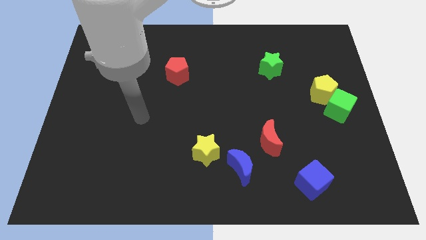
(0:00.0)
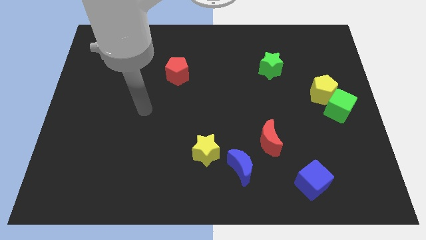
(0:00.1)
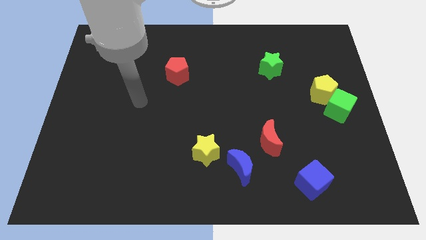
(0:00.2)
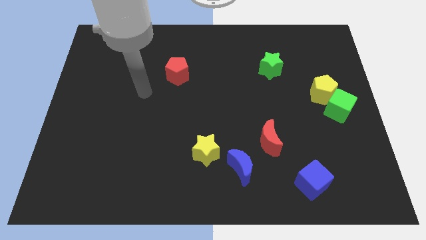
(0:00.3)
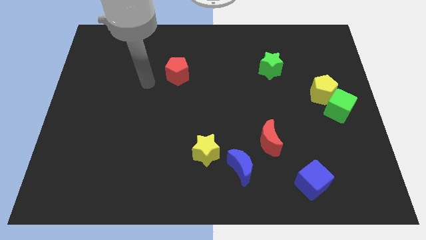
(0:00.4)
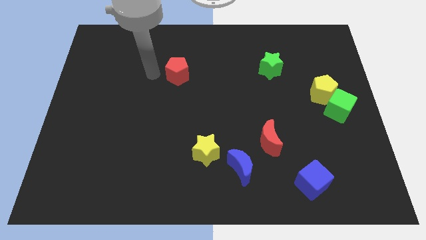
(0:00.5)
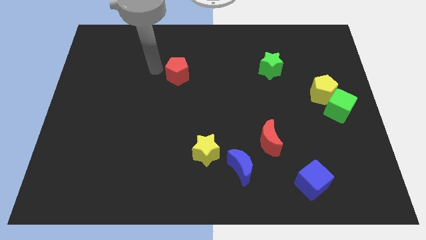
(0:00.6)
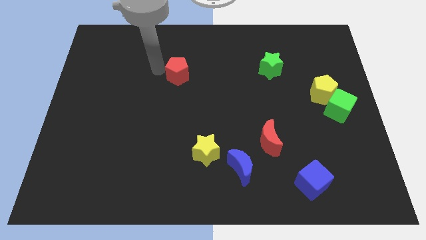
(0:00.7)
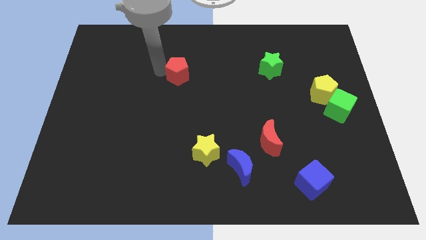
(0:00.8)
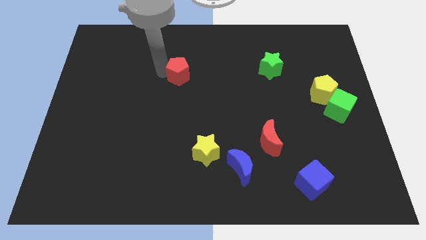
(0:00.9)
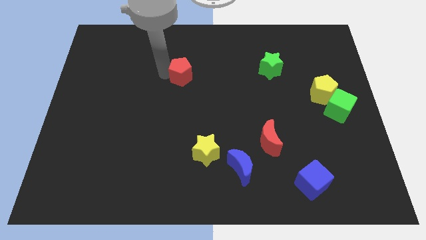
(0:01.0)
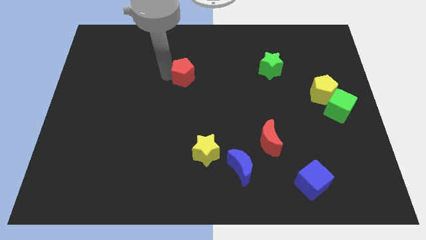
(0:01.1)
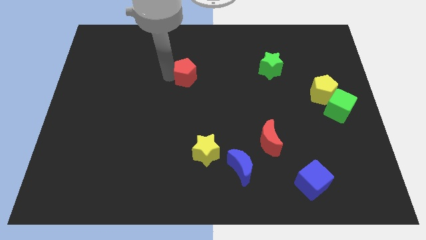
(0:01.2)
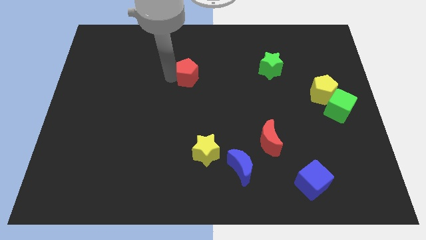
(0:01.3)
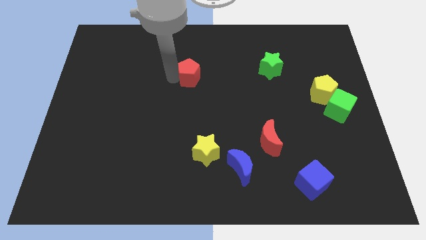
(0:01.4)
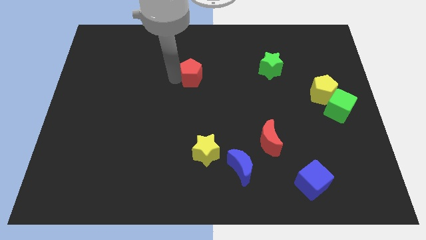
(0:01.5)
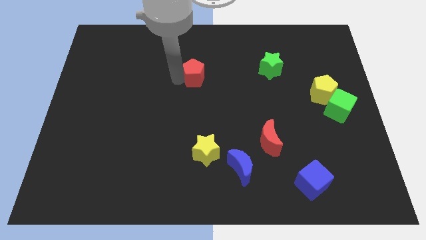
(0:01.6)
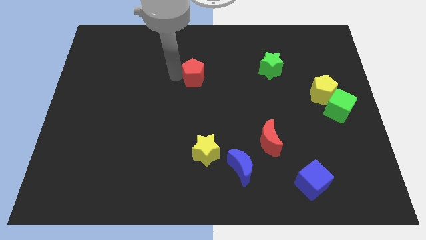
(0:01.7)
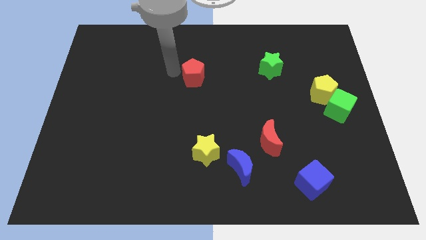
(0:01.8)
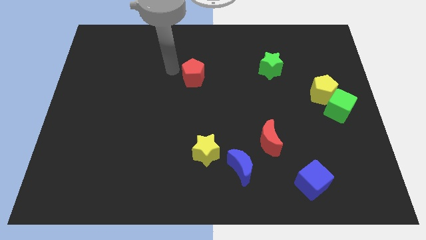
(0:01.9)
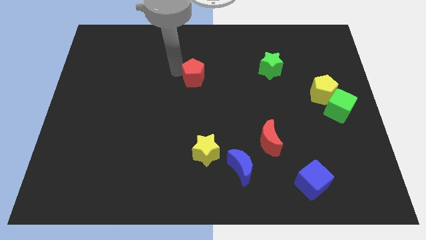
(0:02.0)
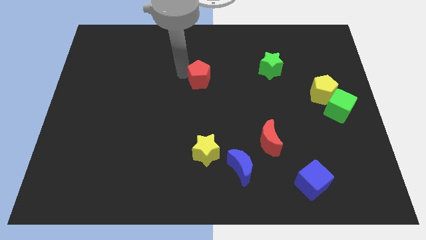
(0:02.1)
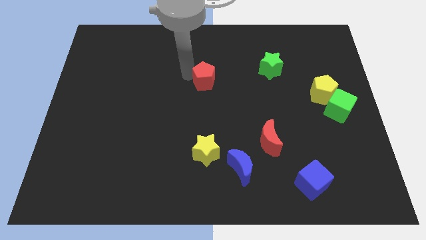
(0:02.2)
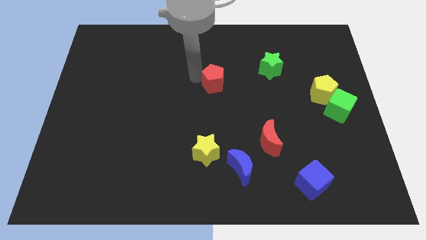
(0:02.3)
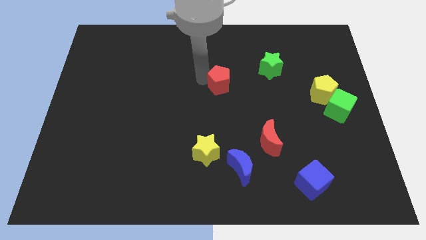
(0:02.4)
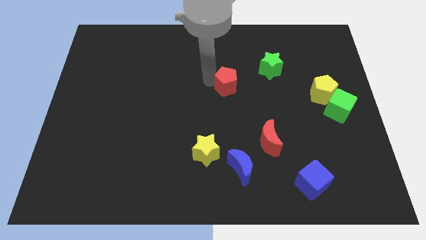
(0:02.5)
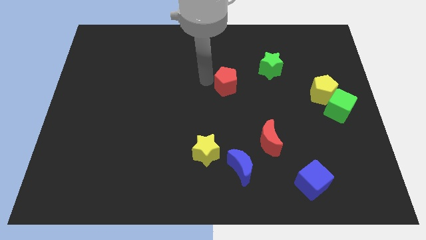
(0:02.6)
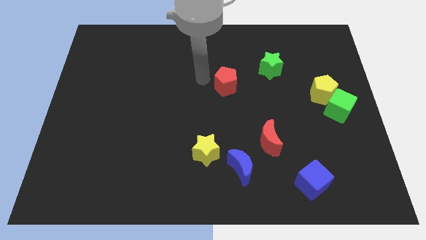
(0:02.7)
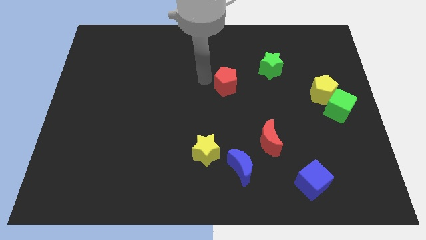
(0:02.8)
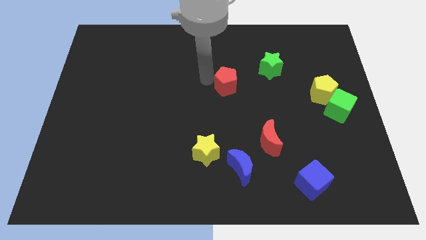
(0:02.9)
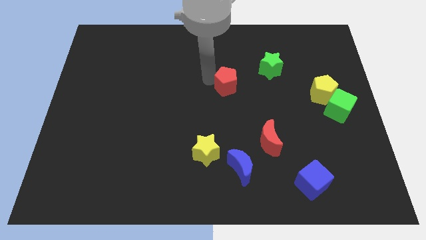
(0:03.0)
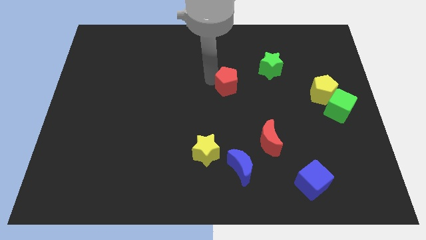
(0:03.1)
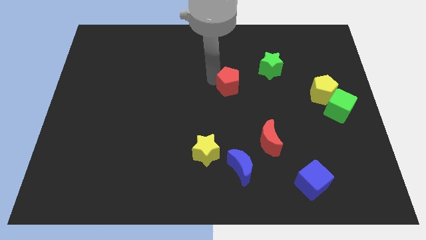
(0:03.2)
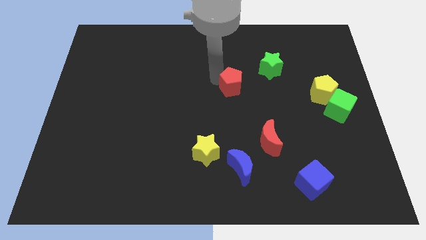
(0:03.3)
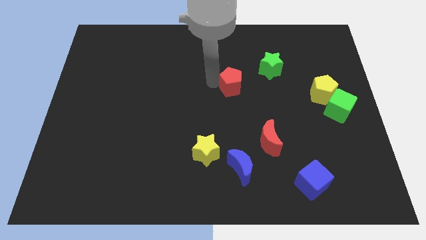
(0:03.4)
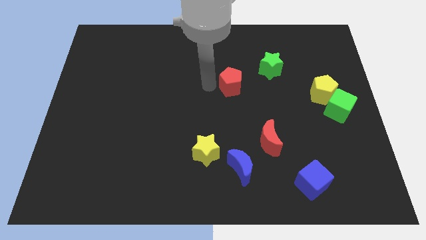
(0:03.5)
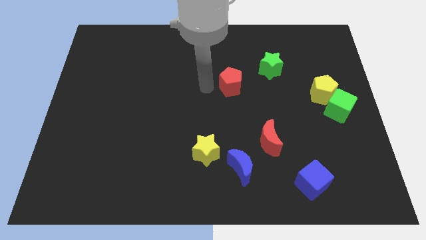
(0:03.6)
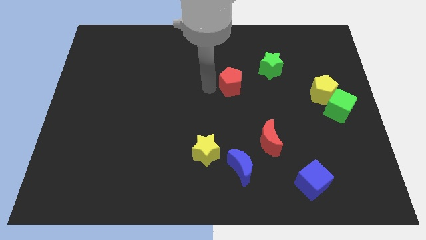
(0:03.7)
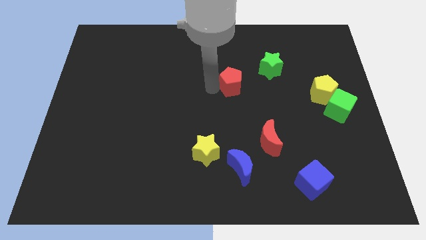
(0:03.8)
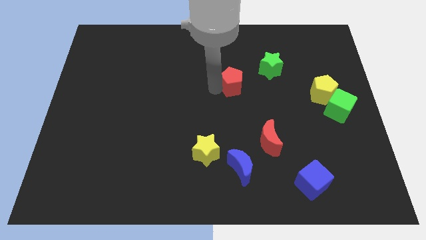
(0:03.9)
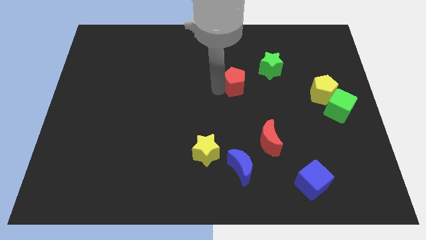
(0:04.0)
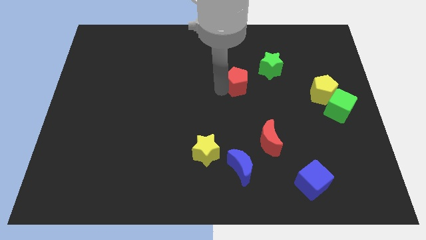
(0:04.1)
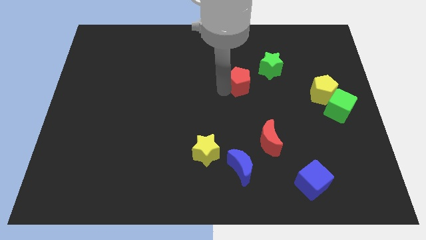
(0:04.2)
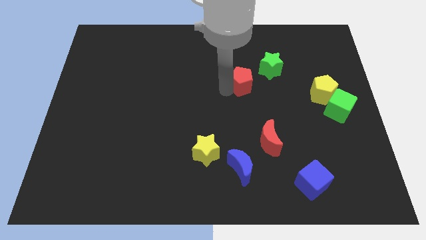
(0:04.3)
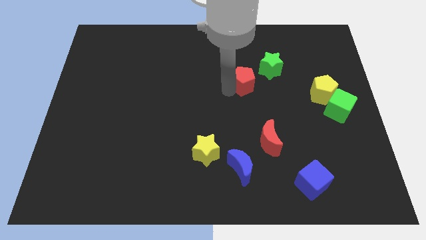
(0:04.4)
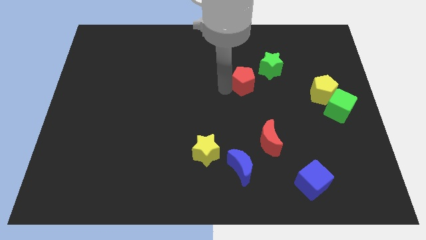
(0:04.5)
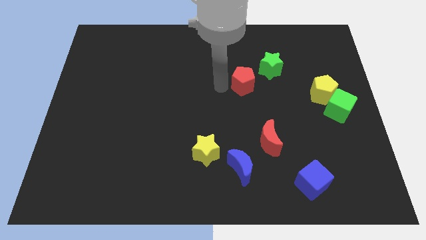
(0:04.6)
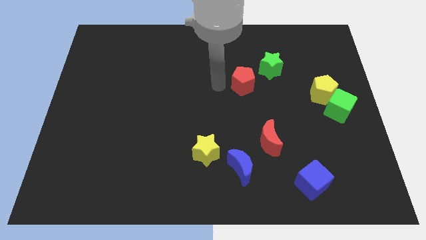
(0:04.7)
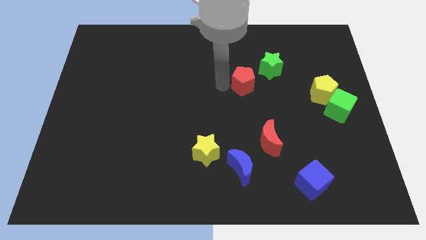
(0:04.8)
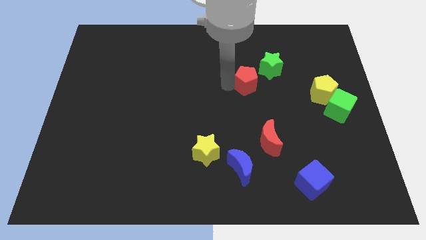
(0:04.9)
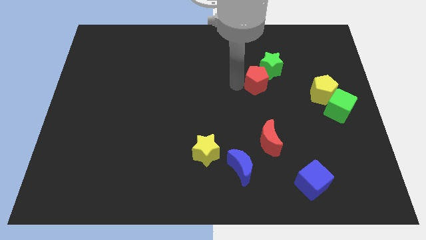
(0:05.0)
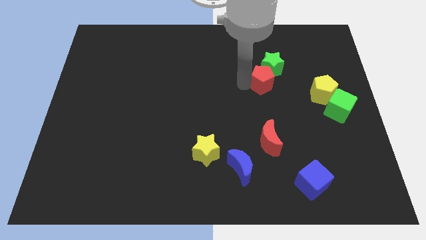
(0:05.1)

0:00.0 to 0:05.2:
push the red pentagon right

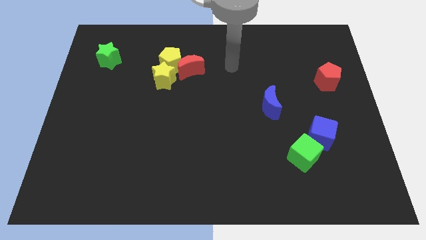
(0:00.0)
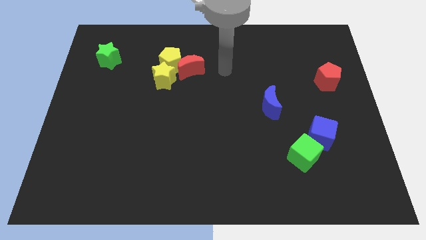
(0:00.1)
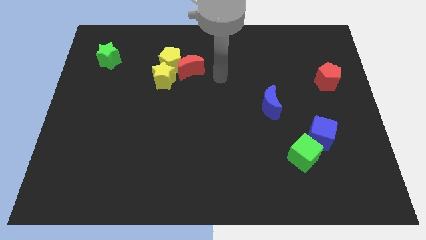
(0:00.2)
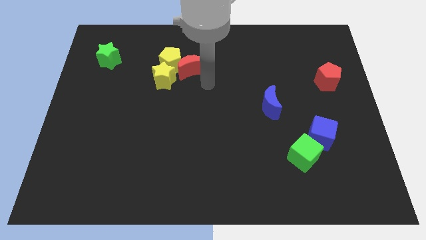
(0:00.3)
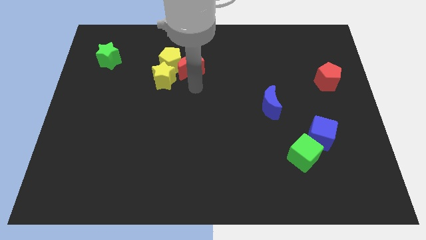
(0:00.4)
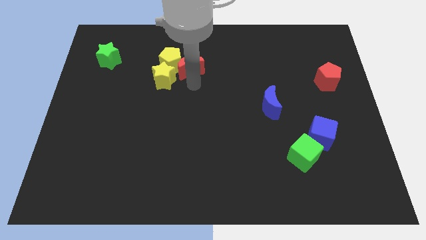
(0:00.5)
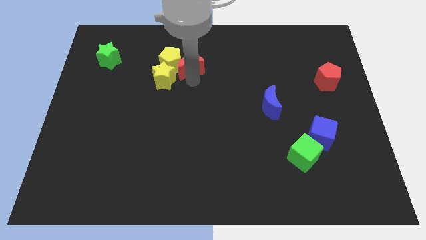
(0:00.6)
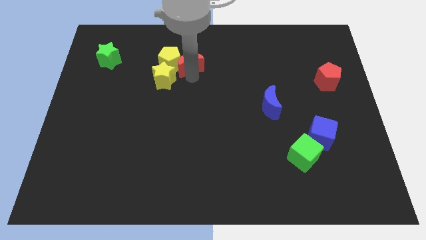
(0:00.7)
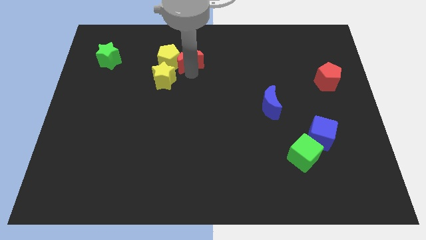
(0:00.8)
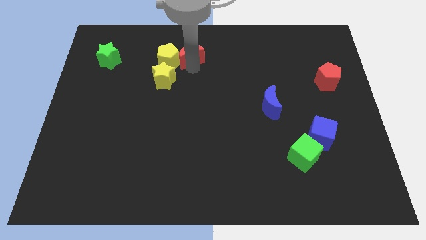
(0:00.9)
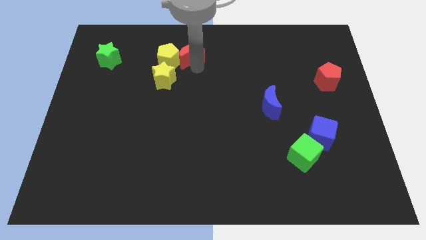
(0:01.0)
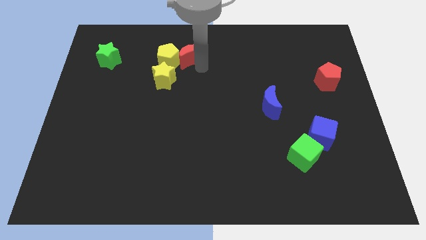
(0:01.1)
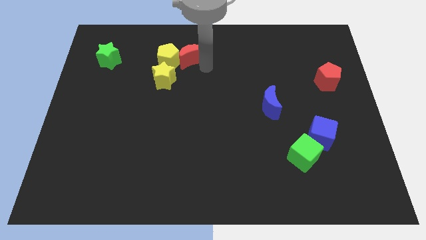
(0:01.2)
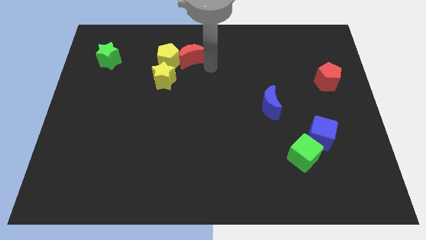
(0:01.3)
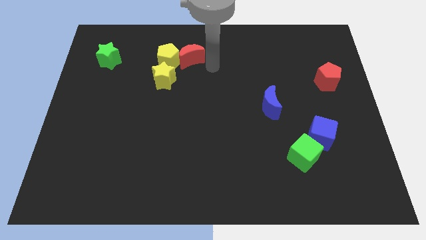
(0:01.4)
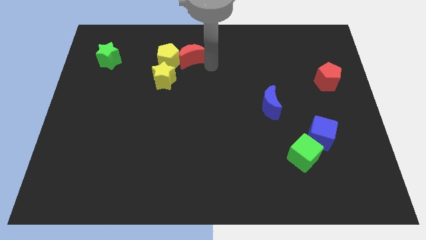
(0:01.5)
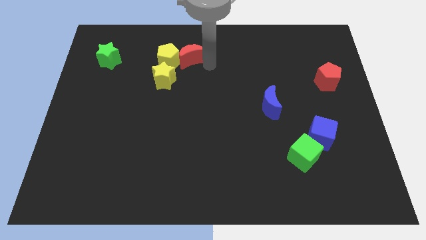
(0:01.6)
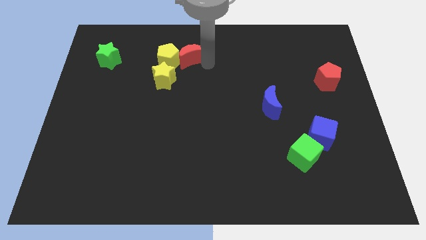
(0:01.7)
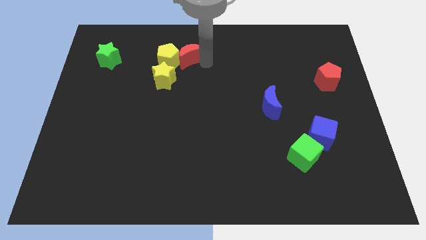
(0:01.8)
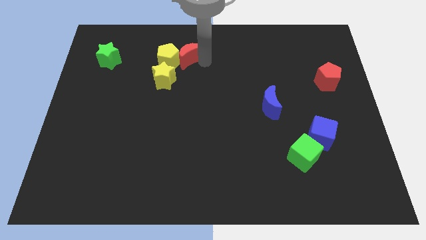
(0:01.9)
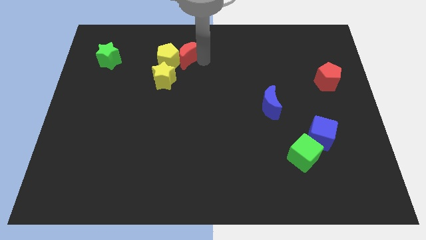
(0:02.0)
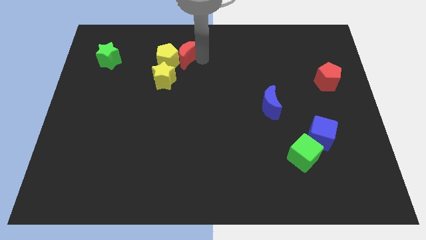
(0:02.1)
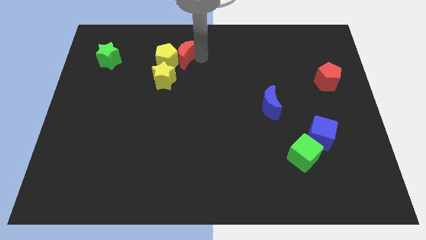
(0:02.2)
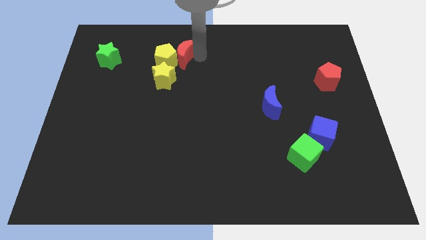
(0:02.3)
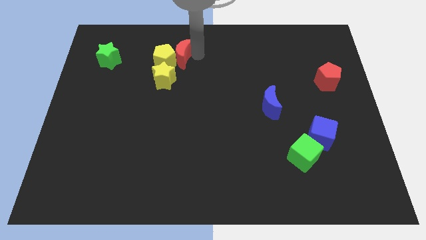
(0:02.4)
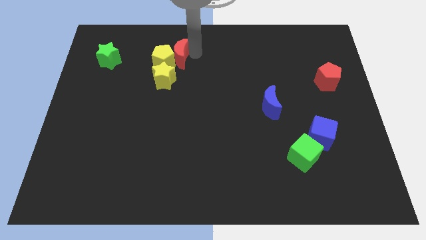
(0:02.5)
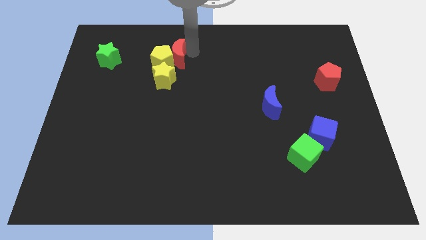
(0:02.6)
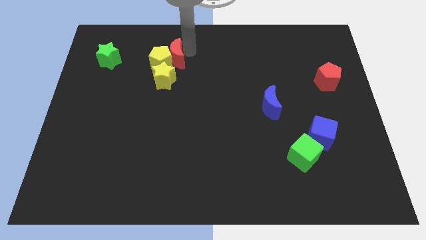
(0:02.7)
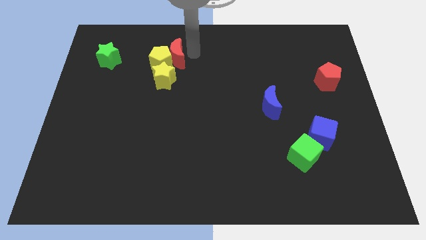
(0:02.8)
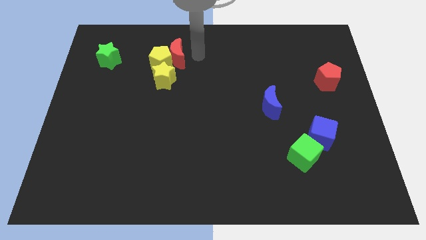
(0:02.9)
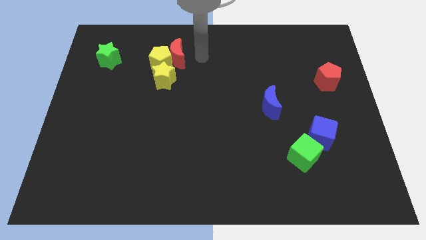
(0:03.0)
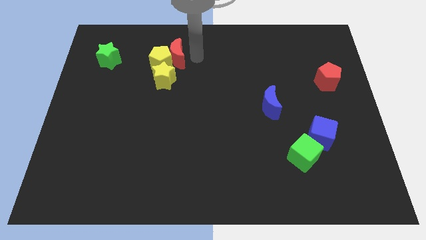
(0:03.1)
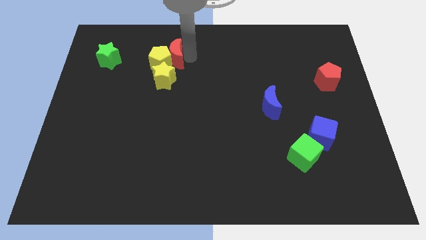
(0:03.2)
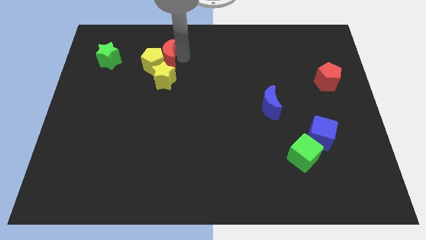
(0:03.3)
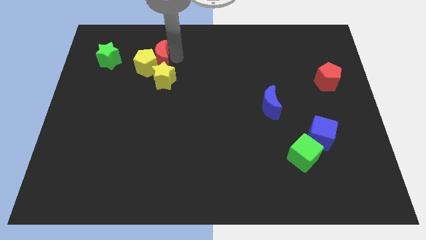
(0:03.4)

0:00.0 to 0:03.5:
slide the red moon to the left a bit
